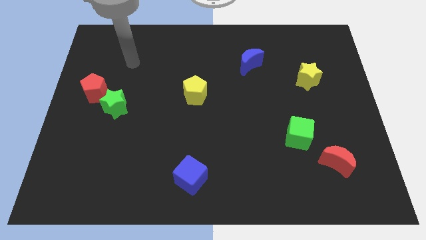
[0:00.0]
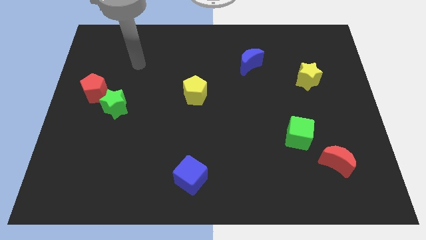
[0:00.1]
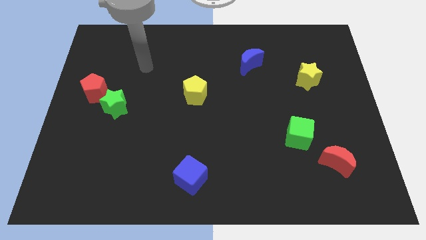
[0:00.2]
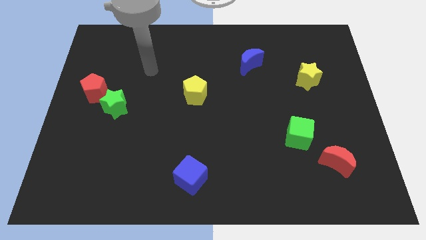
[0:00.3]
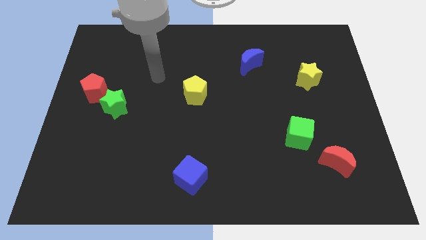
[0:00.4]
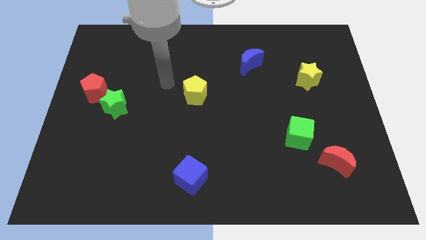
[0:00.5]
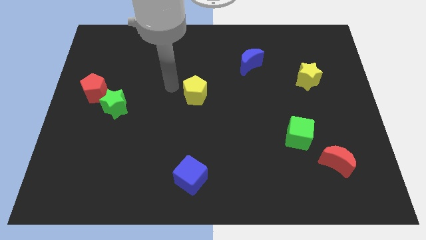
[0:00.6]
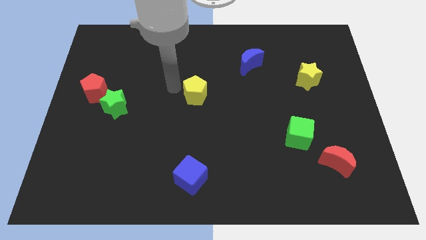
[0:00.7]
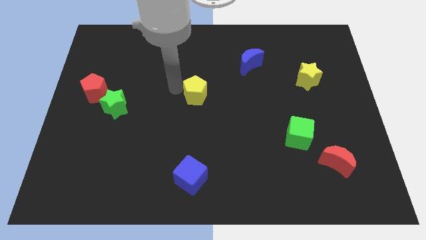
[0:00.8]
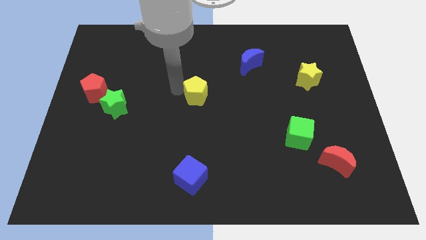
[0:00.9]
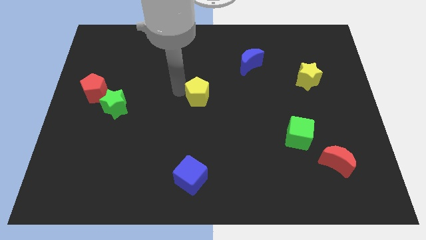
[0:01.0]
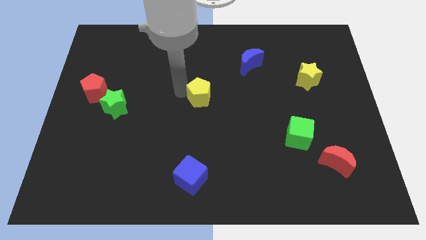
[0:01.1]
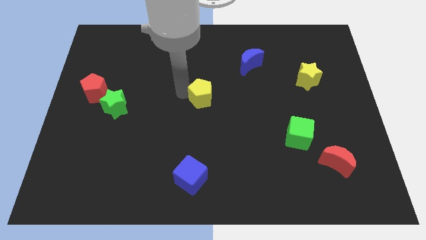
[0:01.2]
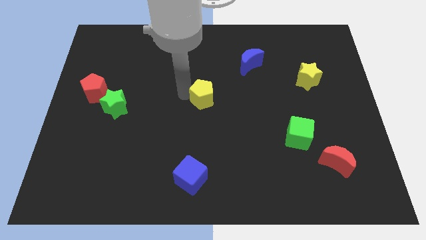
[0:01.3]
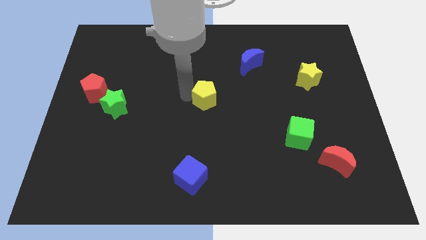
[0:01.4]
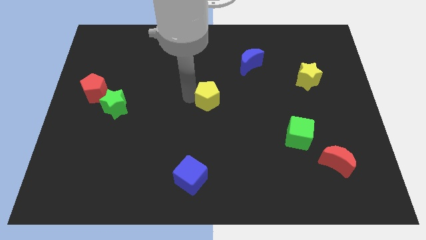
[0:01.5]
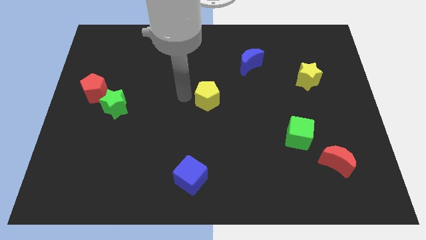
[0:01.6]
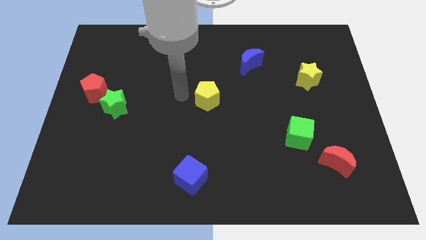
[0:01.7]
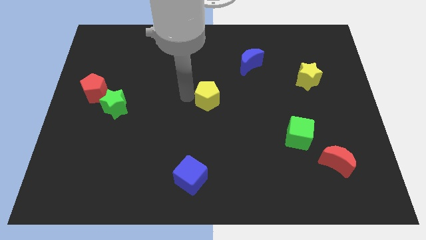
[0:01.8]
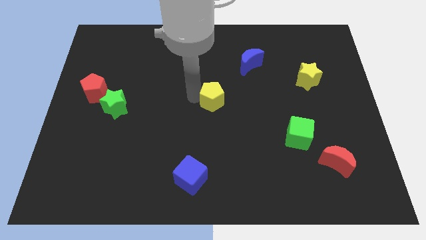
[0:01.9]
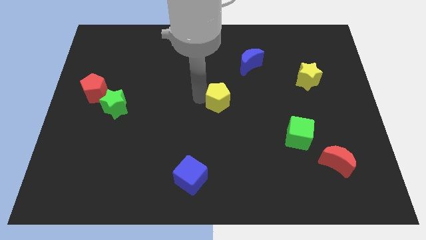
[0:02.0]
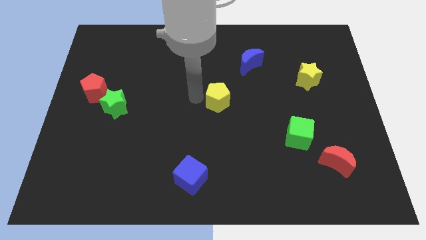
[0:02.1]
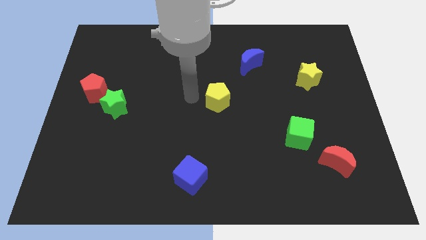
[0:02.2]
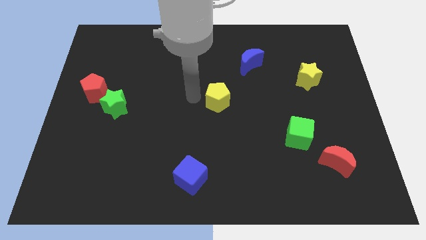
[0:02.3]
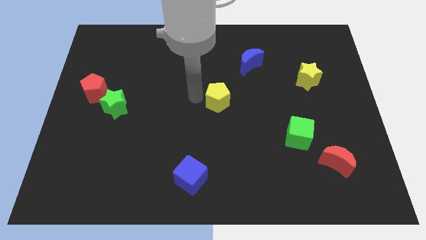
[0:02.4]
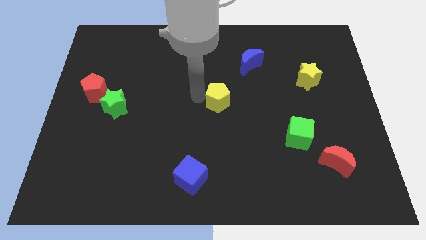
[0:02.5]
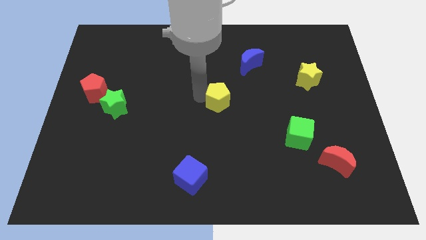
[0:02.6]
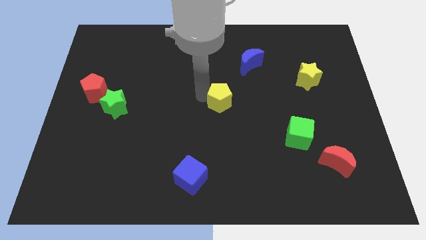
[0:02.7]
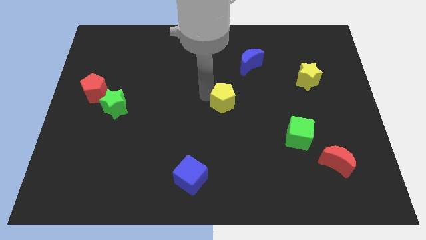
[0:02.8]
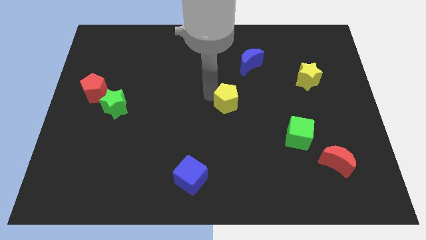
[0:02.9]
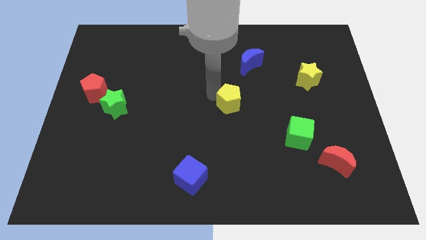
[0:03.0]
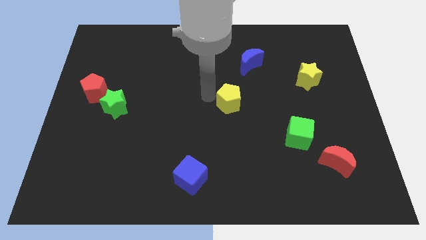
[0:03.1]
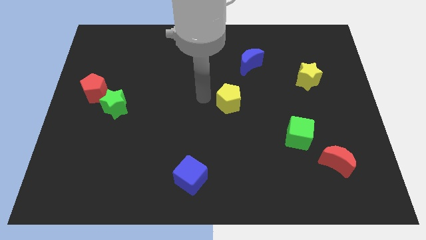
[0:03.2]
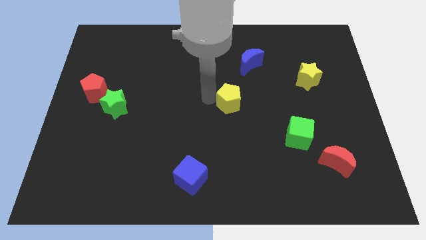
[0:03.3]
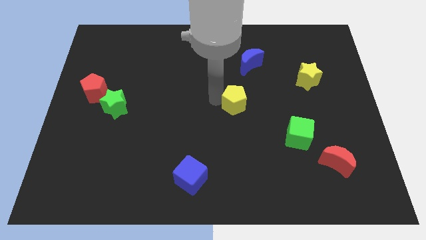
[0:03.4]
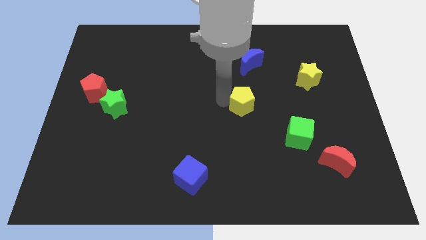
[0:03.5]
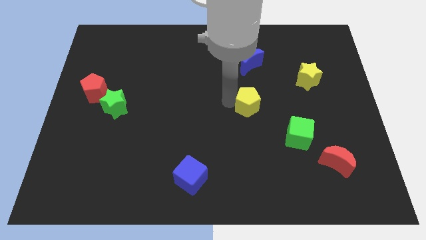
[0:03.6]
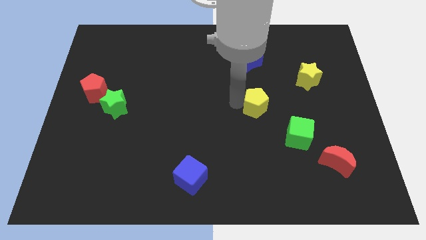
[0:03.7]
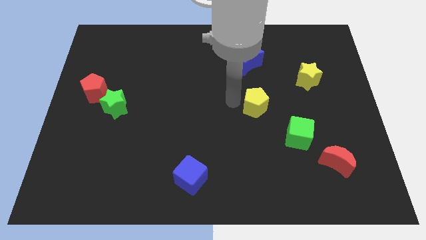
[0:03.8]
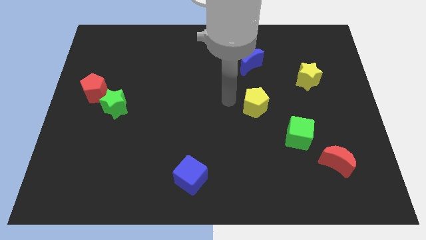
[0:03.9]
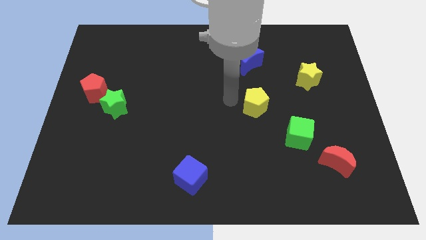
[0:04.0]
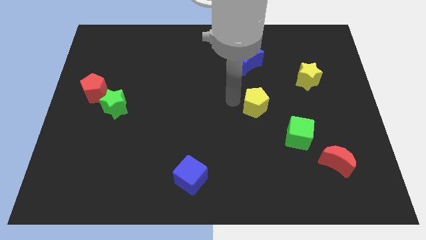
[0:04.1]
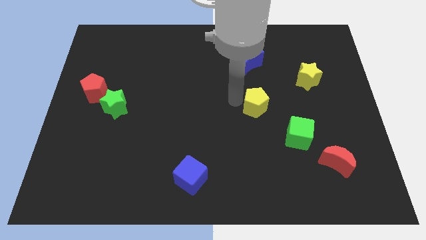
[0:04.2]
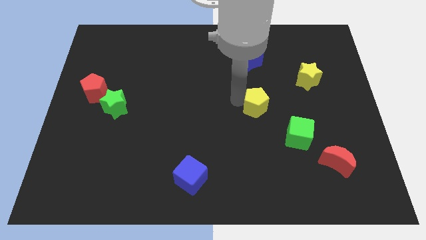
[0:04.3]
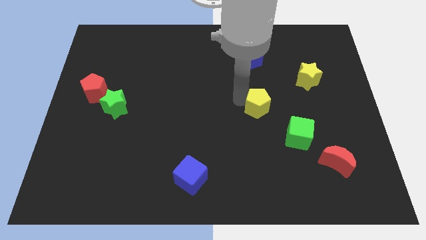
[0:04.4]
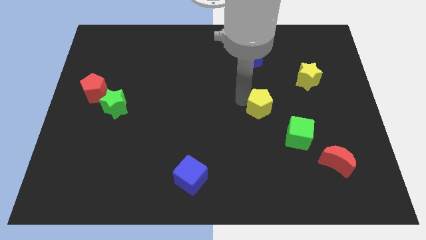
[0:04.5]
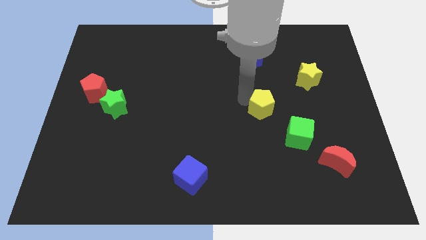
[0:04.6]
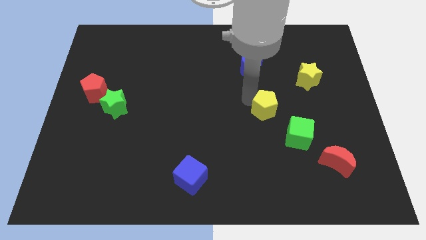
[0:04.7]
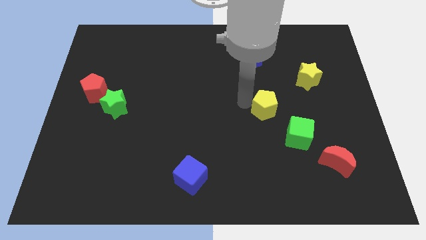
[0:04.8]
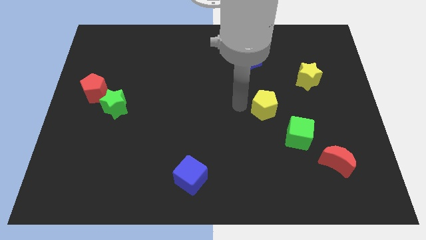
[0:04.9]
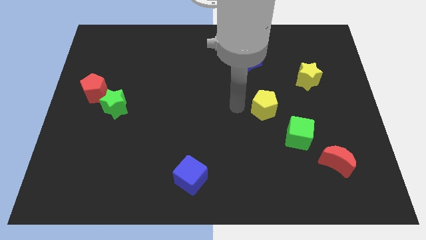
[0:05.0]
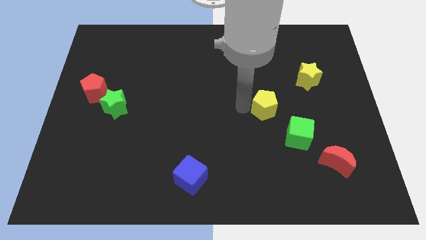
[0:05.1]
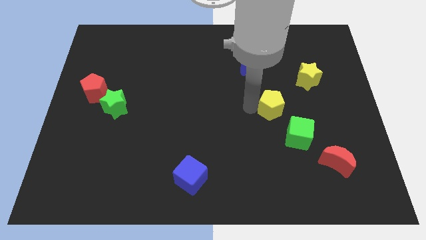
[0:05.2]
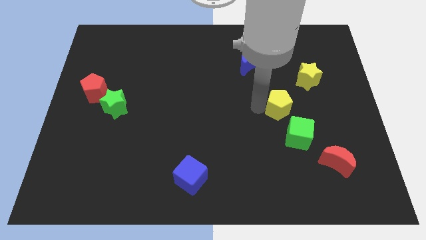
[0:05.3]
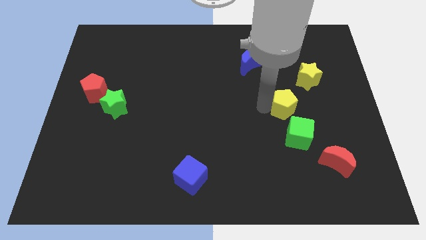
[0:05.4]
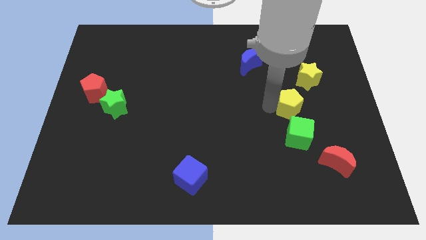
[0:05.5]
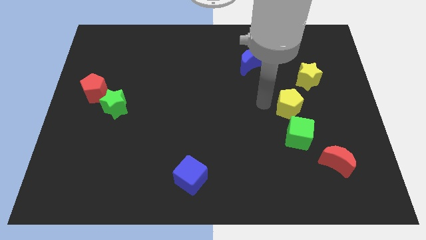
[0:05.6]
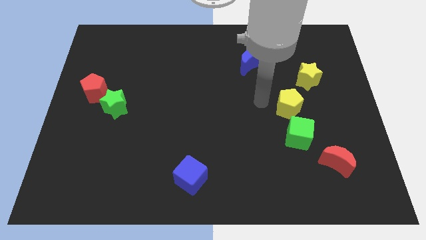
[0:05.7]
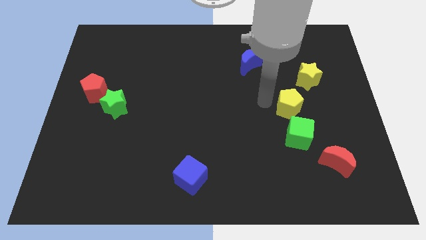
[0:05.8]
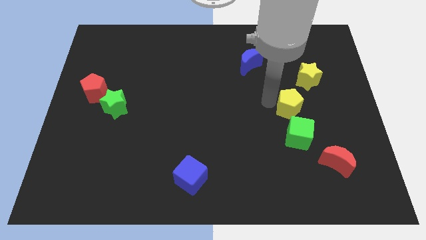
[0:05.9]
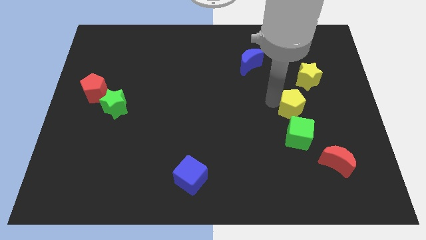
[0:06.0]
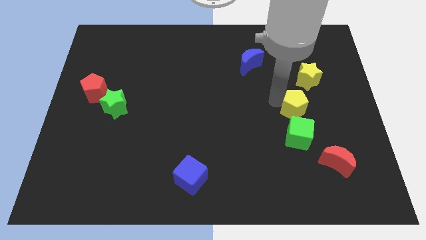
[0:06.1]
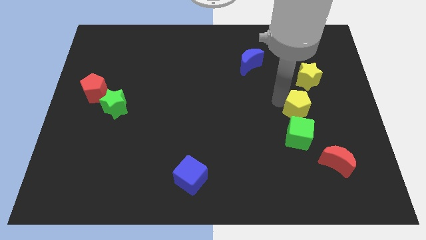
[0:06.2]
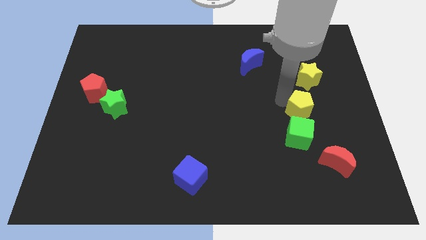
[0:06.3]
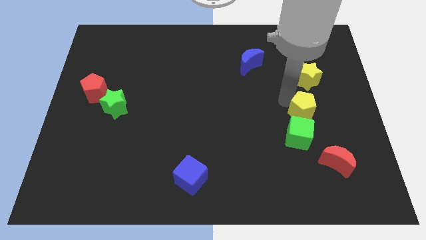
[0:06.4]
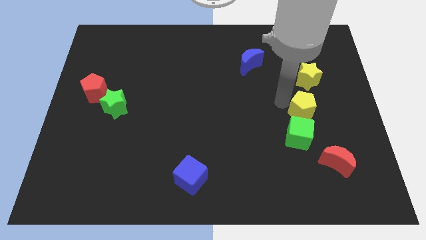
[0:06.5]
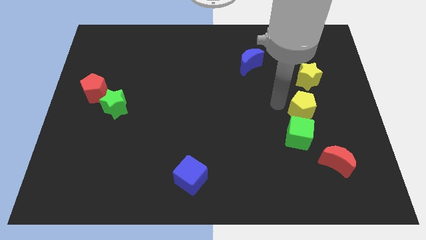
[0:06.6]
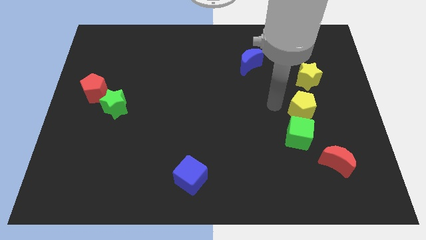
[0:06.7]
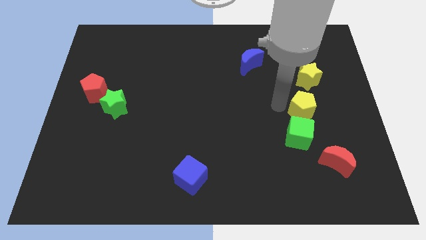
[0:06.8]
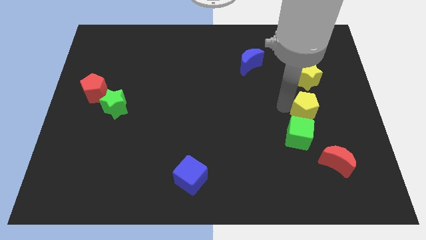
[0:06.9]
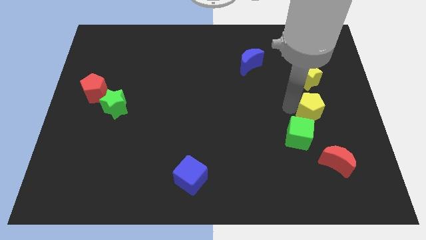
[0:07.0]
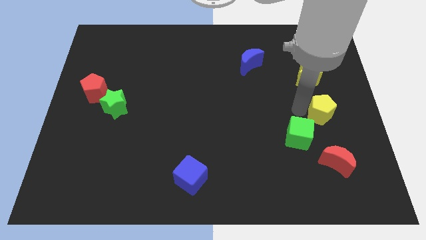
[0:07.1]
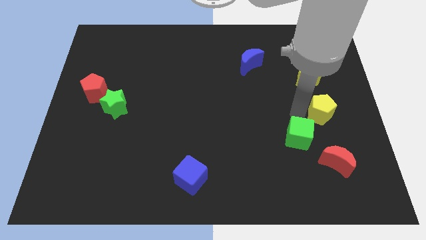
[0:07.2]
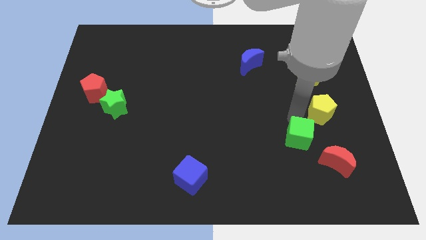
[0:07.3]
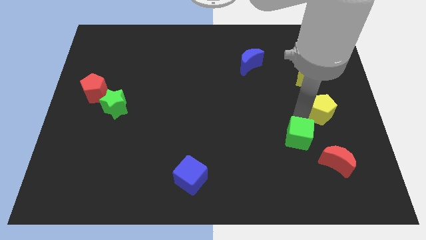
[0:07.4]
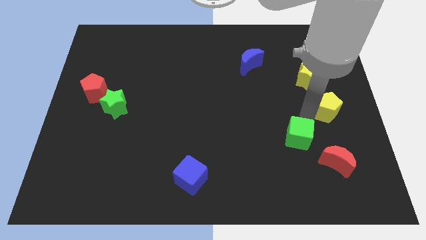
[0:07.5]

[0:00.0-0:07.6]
move the yellow pentagon to the center right
